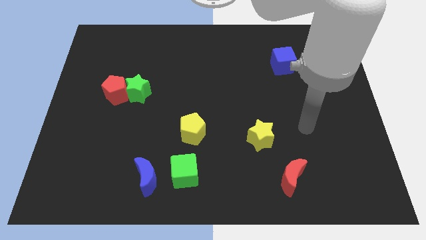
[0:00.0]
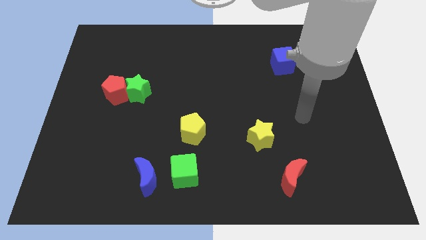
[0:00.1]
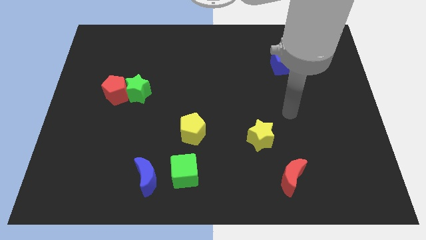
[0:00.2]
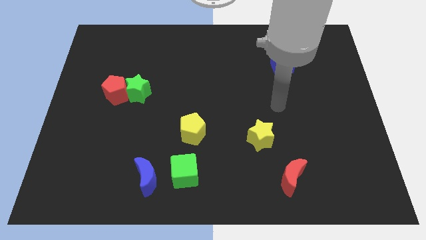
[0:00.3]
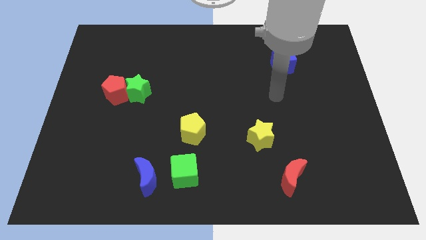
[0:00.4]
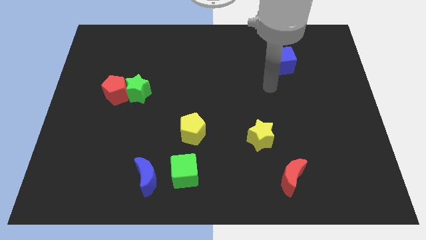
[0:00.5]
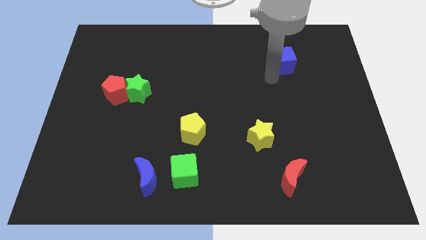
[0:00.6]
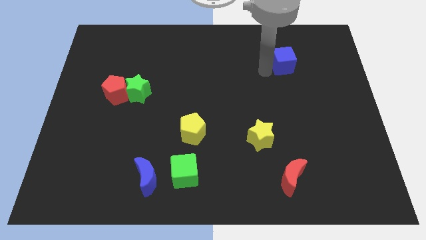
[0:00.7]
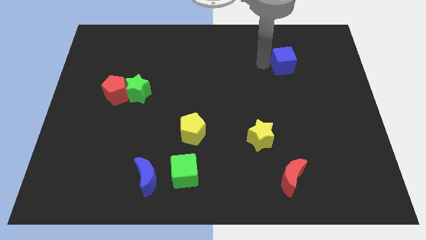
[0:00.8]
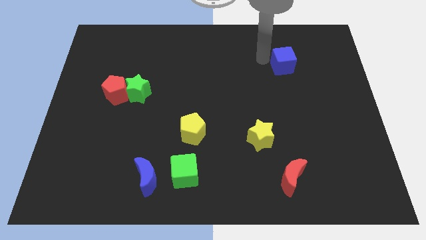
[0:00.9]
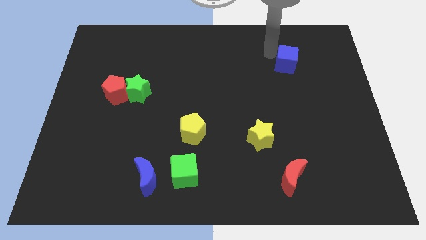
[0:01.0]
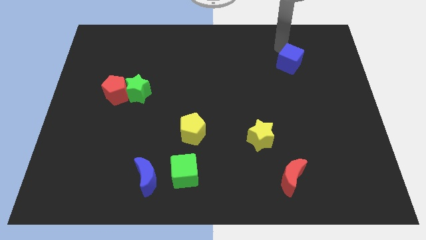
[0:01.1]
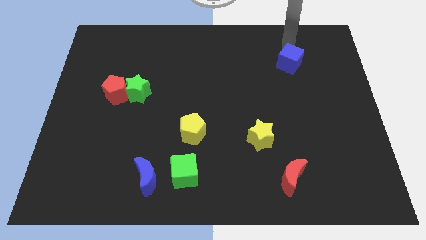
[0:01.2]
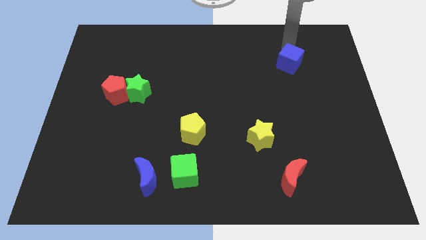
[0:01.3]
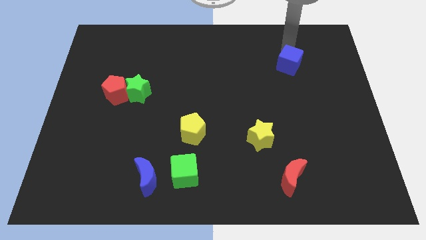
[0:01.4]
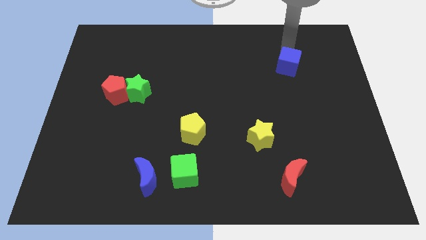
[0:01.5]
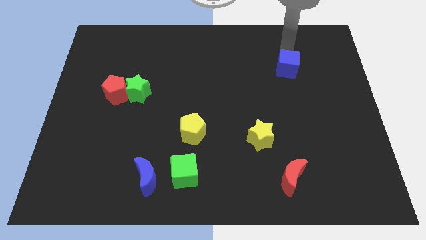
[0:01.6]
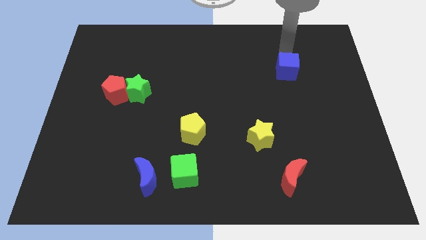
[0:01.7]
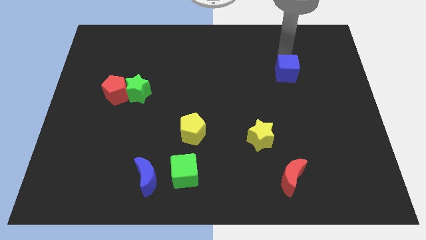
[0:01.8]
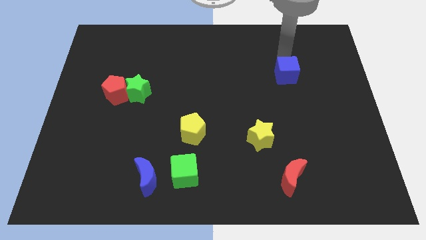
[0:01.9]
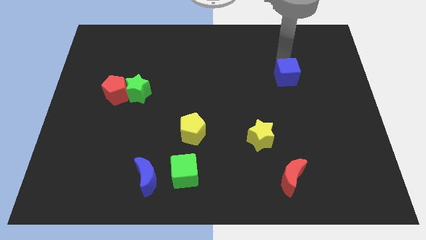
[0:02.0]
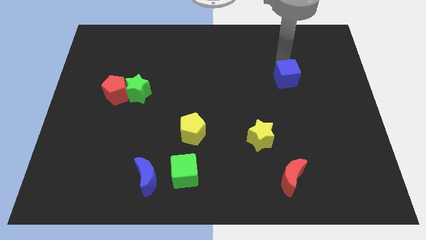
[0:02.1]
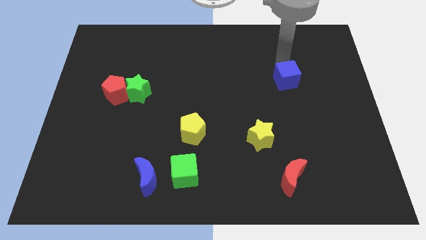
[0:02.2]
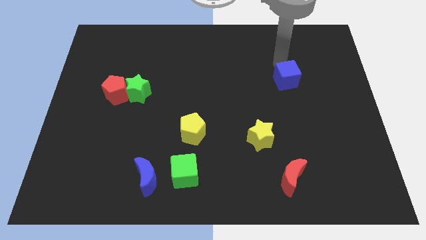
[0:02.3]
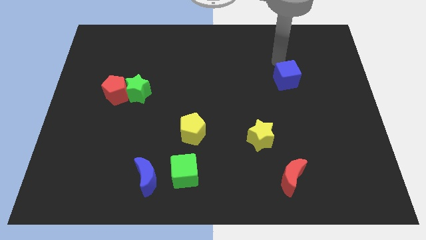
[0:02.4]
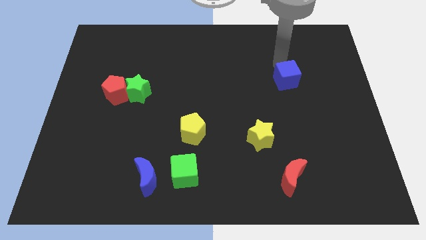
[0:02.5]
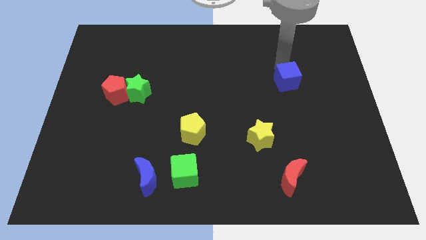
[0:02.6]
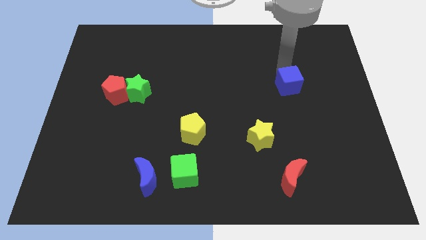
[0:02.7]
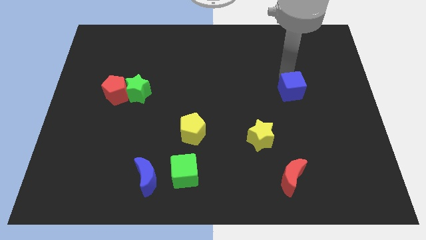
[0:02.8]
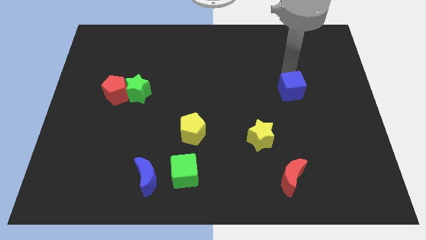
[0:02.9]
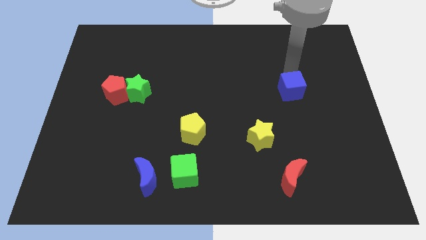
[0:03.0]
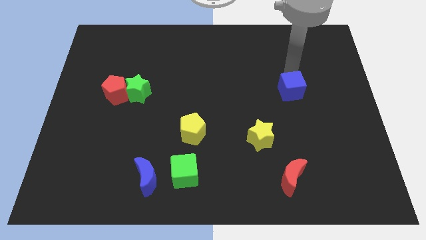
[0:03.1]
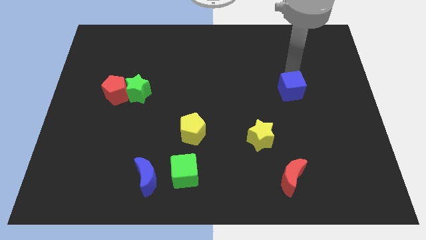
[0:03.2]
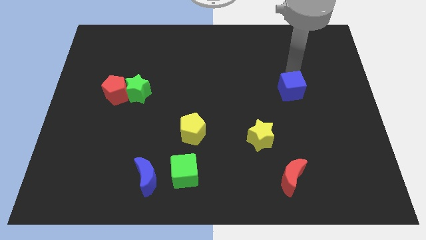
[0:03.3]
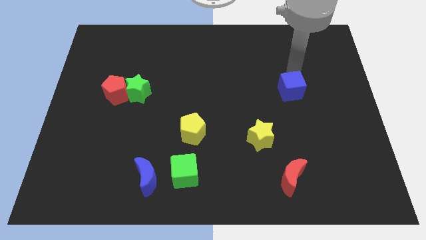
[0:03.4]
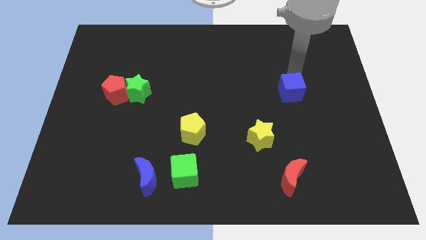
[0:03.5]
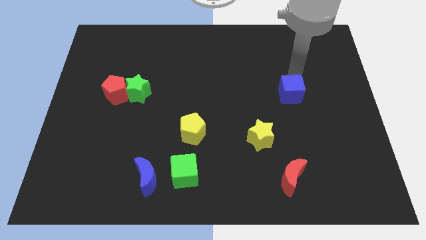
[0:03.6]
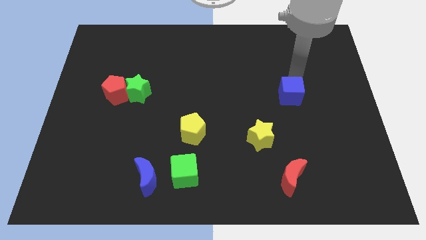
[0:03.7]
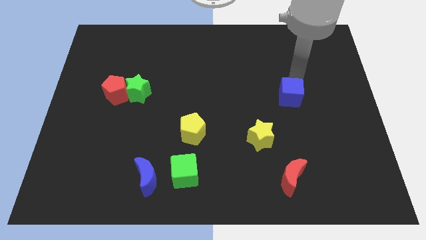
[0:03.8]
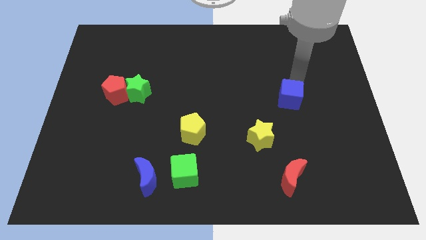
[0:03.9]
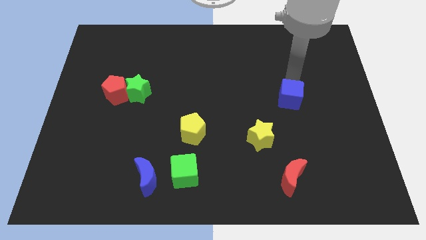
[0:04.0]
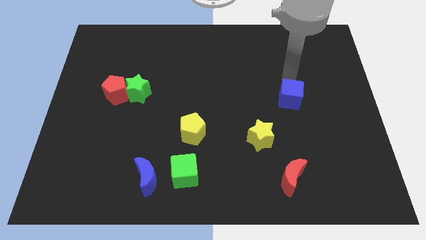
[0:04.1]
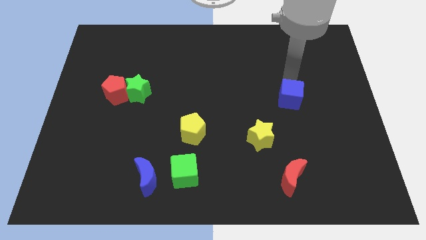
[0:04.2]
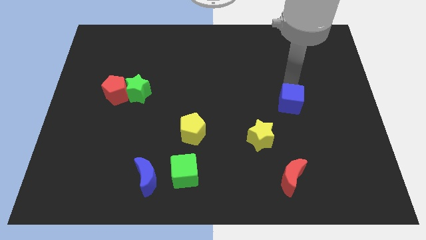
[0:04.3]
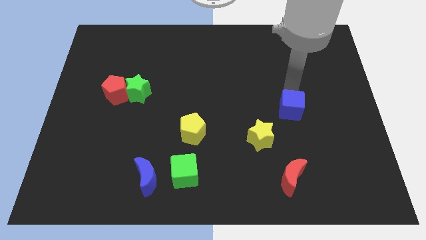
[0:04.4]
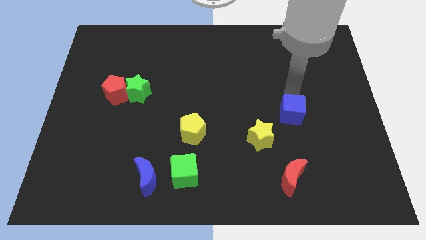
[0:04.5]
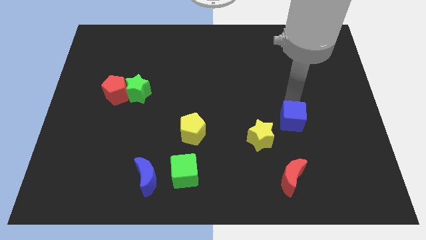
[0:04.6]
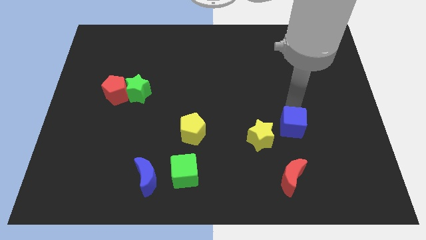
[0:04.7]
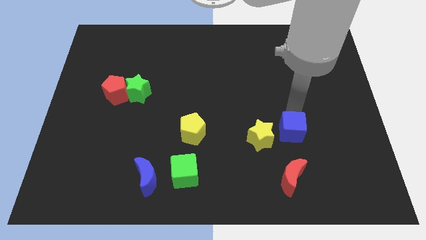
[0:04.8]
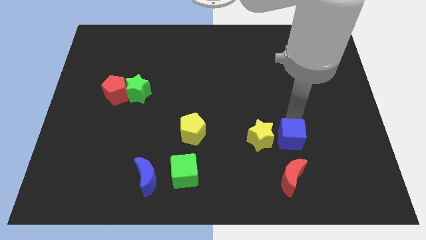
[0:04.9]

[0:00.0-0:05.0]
put the blue cube to the bottom right side of the yellow star
